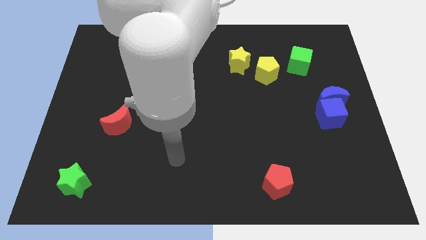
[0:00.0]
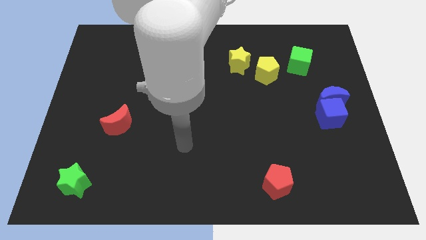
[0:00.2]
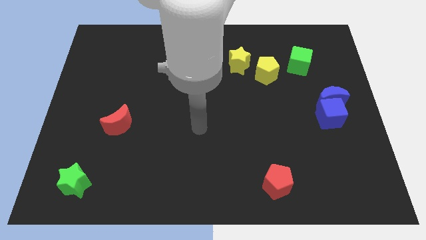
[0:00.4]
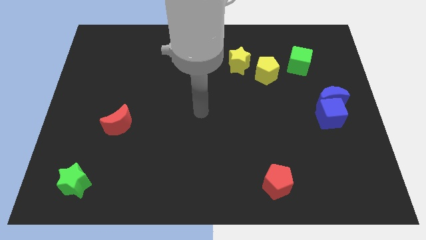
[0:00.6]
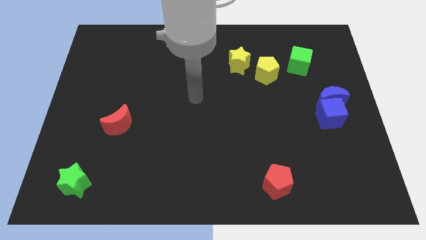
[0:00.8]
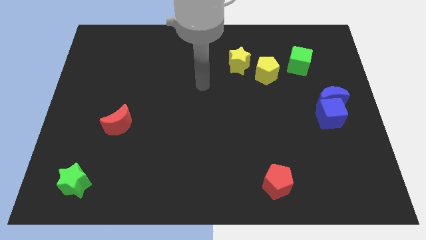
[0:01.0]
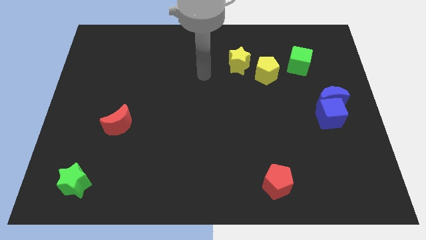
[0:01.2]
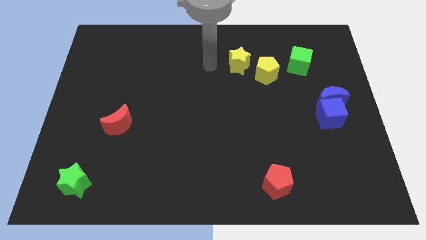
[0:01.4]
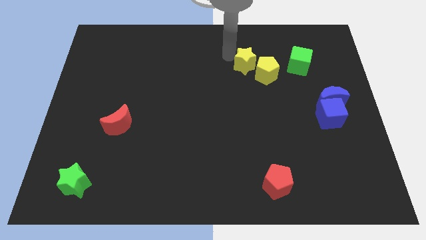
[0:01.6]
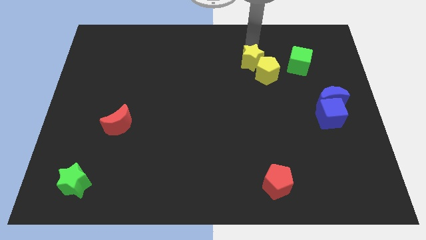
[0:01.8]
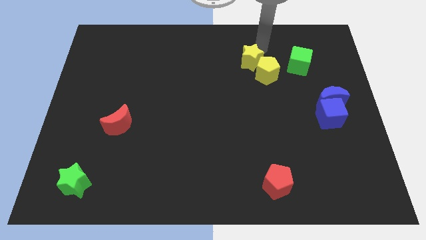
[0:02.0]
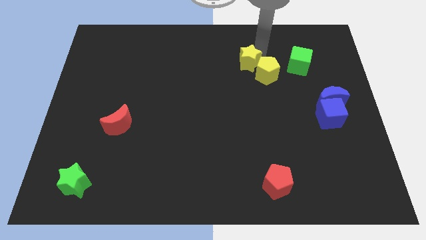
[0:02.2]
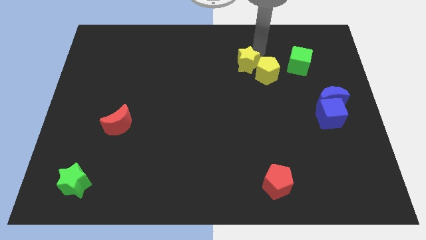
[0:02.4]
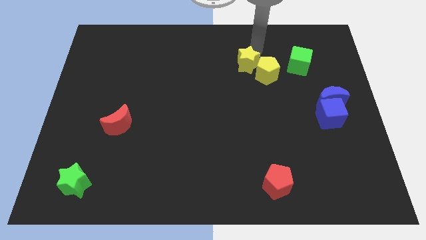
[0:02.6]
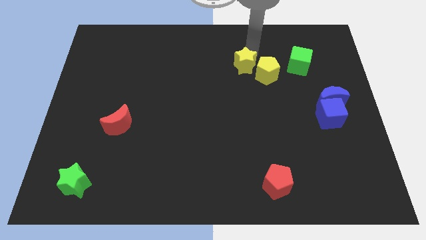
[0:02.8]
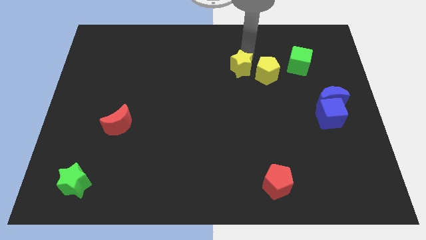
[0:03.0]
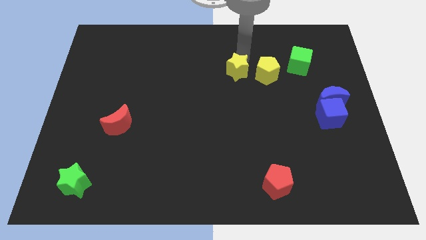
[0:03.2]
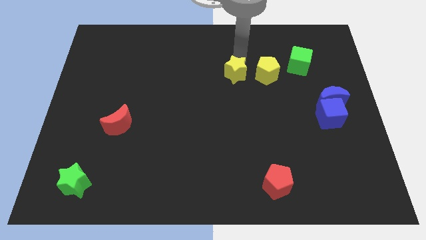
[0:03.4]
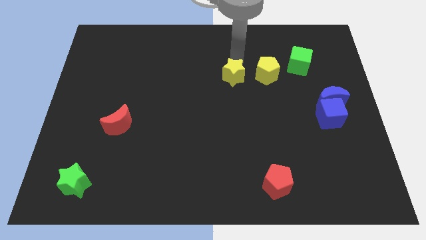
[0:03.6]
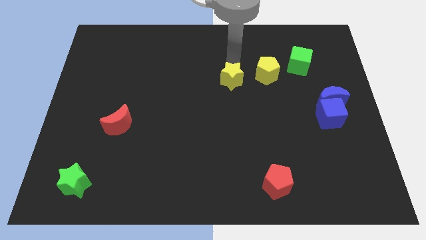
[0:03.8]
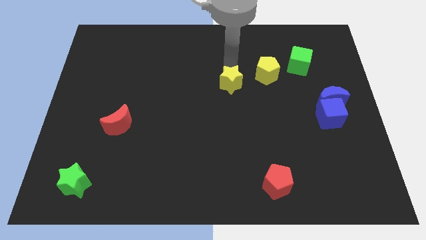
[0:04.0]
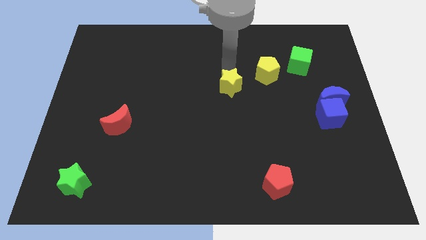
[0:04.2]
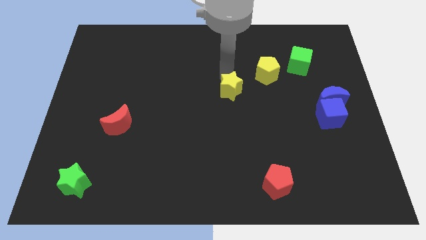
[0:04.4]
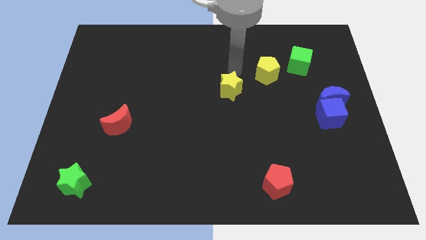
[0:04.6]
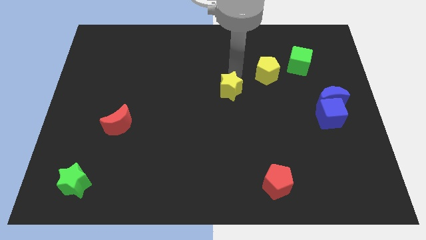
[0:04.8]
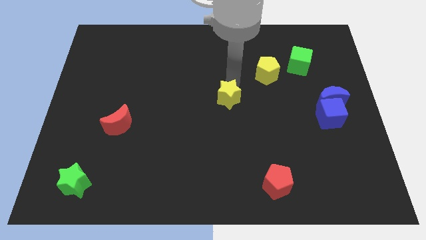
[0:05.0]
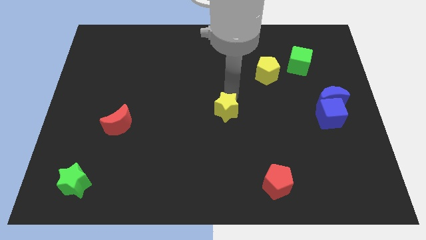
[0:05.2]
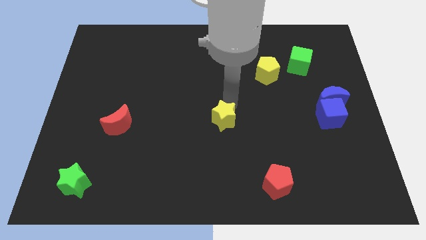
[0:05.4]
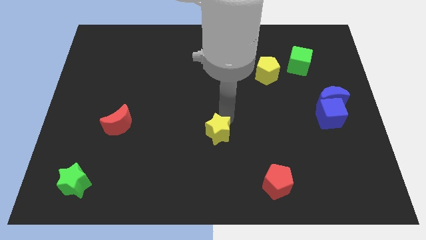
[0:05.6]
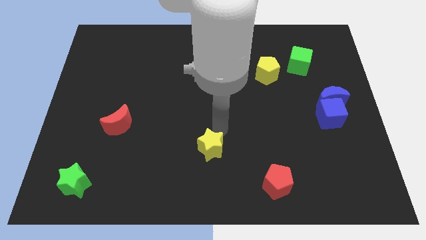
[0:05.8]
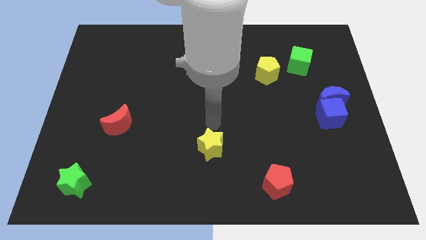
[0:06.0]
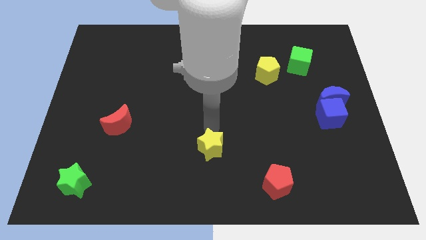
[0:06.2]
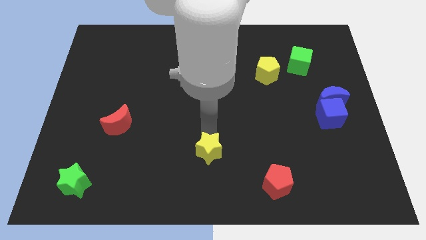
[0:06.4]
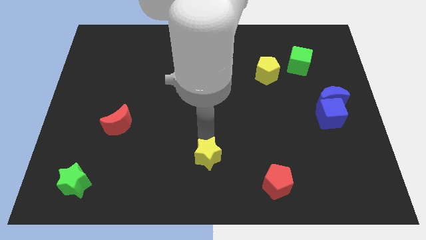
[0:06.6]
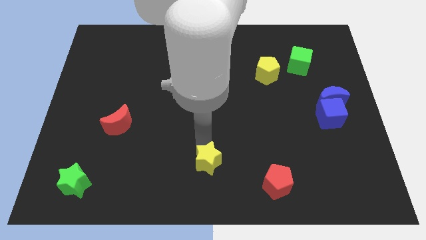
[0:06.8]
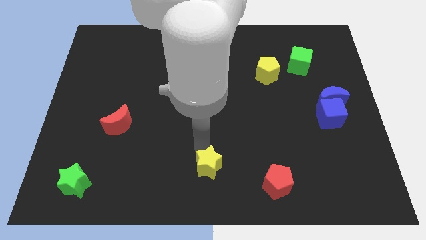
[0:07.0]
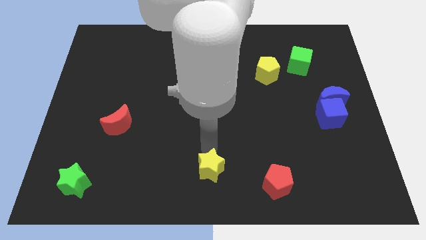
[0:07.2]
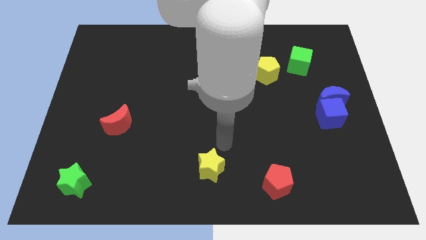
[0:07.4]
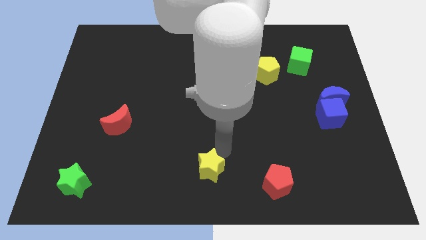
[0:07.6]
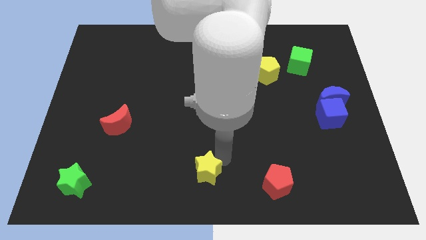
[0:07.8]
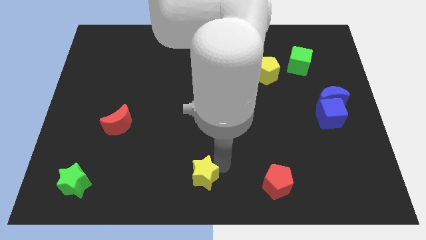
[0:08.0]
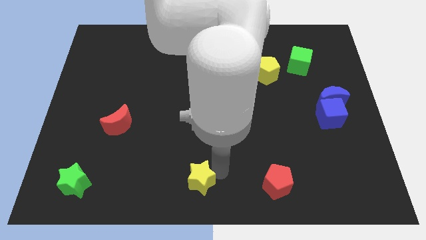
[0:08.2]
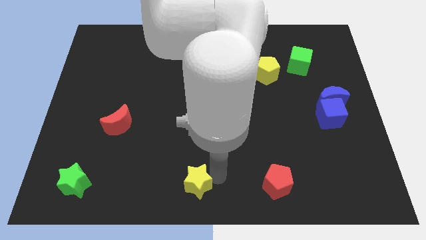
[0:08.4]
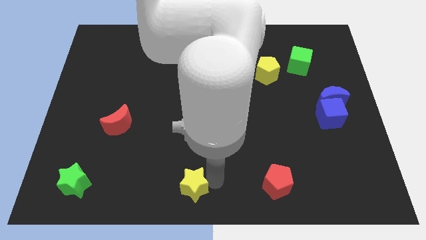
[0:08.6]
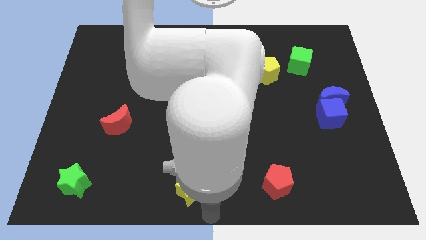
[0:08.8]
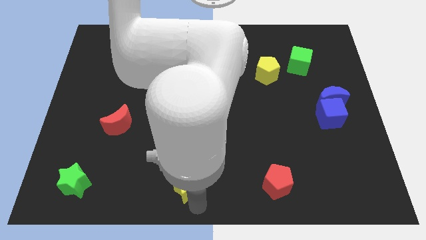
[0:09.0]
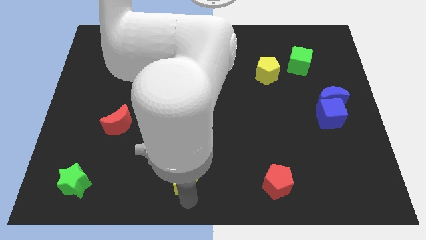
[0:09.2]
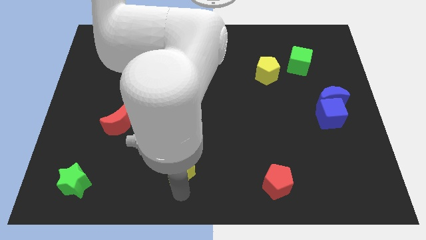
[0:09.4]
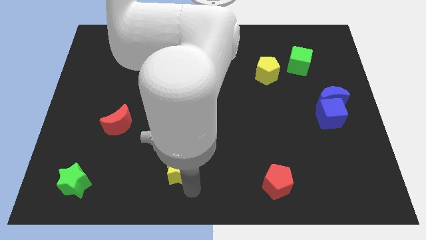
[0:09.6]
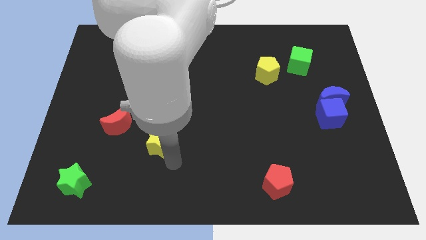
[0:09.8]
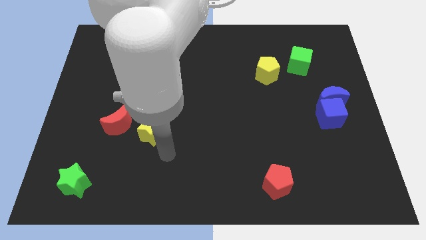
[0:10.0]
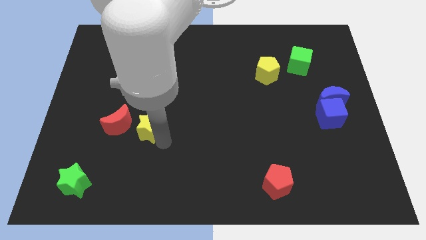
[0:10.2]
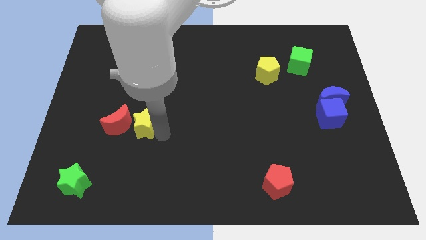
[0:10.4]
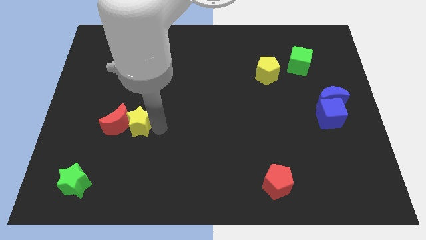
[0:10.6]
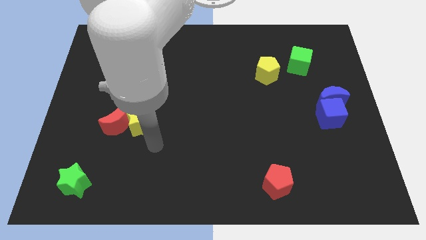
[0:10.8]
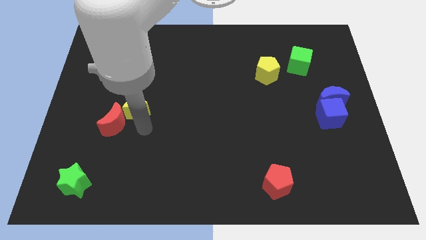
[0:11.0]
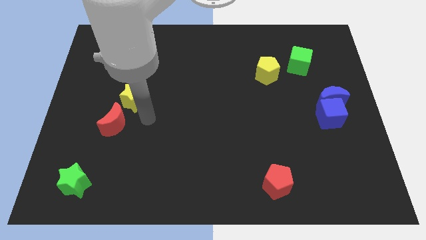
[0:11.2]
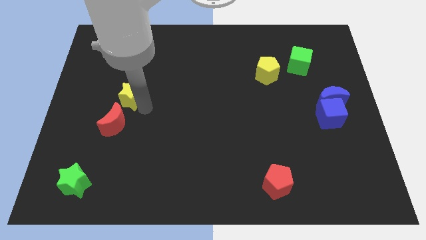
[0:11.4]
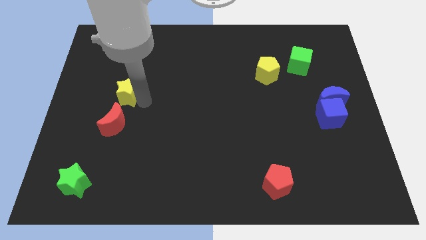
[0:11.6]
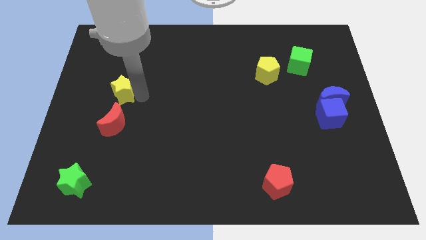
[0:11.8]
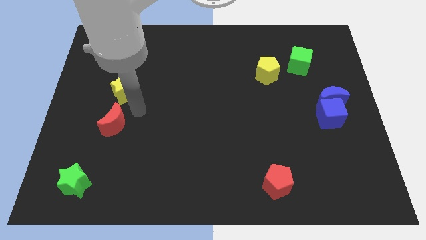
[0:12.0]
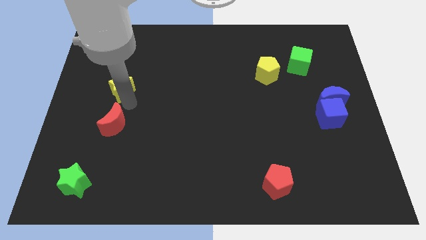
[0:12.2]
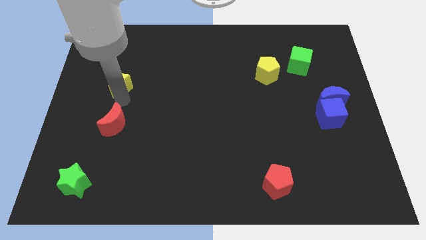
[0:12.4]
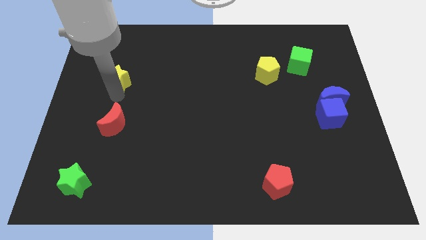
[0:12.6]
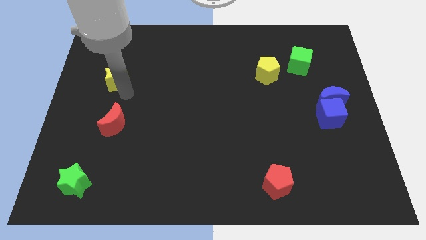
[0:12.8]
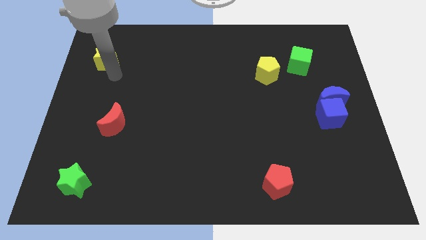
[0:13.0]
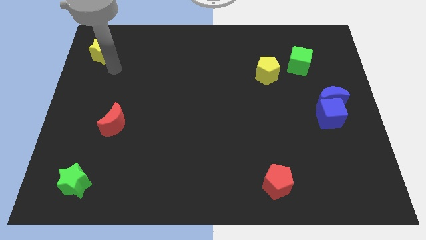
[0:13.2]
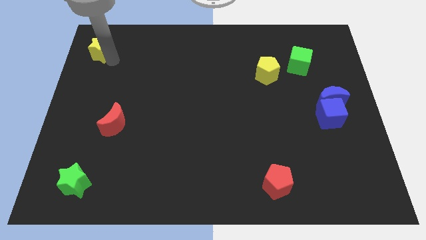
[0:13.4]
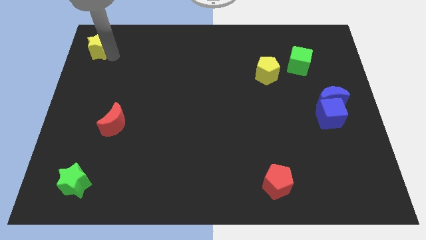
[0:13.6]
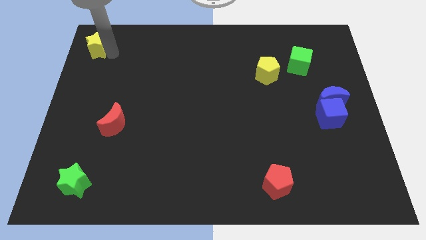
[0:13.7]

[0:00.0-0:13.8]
move the yellow star to the top left of the board
